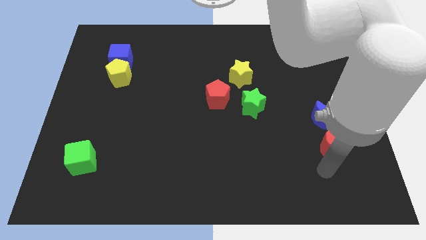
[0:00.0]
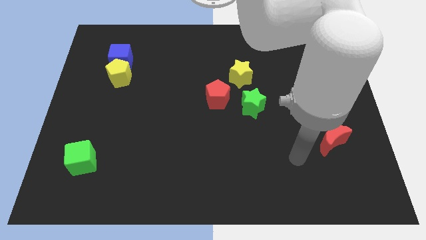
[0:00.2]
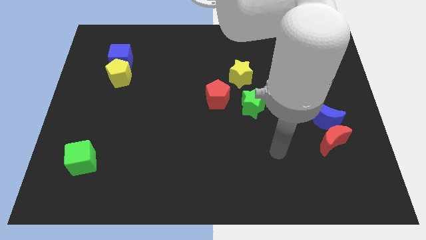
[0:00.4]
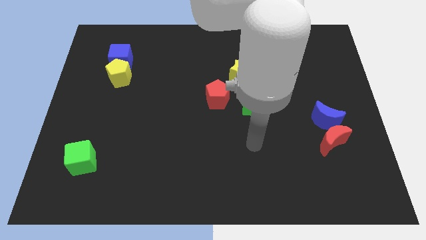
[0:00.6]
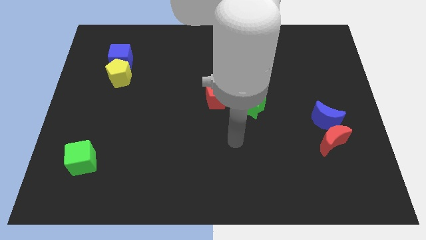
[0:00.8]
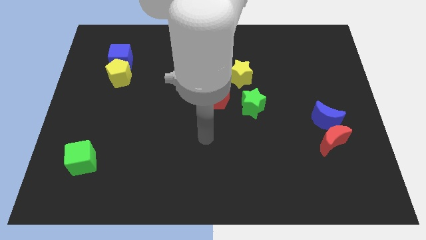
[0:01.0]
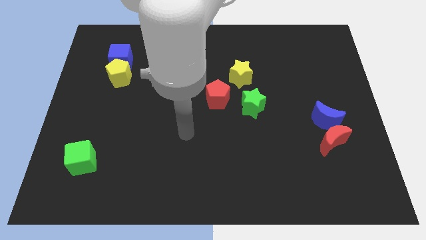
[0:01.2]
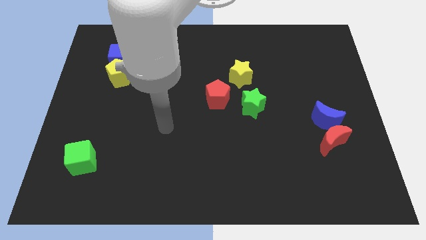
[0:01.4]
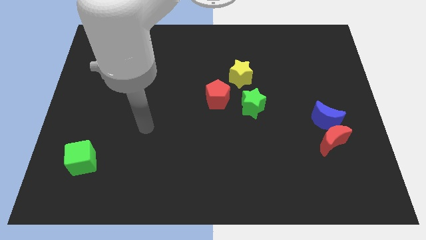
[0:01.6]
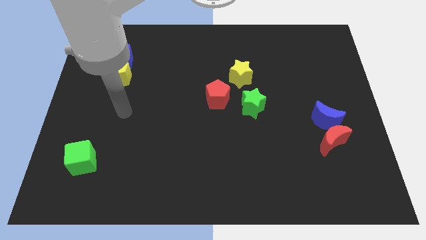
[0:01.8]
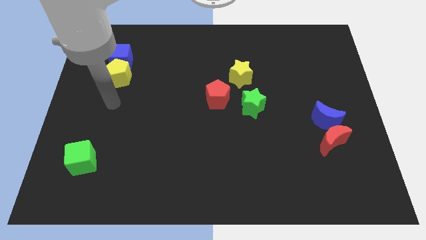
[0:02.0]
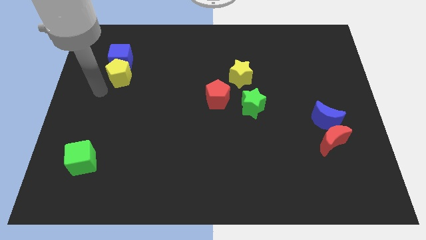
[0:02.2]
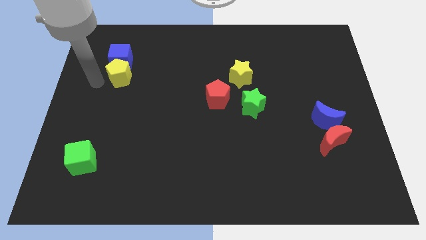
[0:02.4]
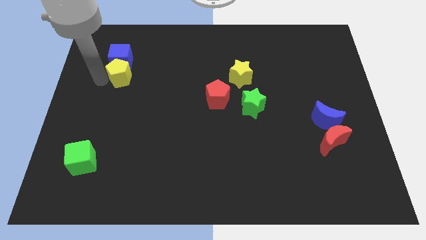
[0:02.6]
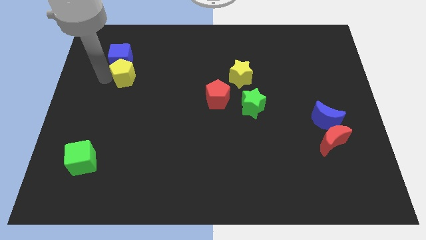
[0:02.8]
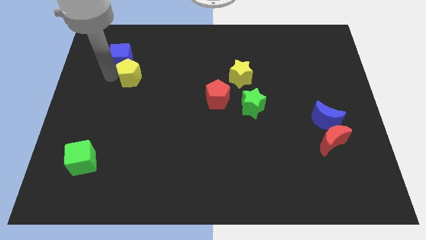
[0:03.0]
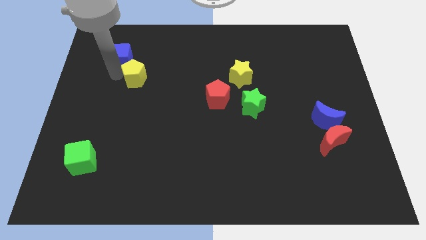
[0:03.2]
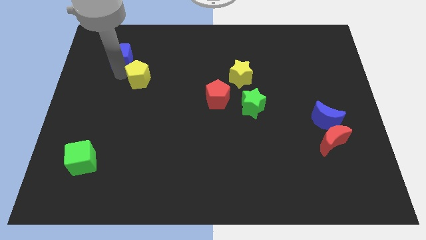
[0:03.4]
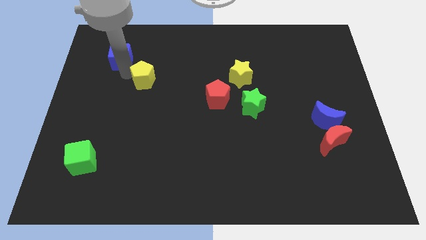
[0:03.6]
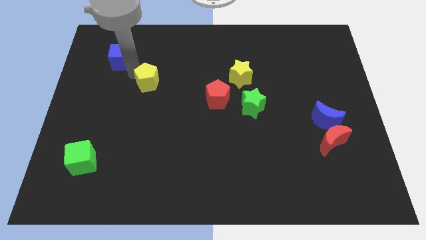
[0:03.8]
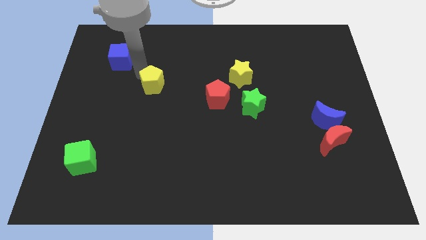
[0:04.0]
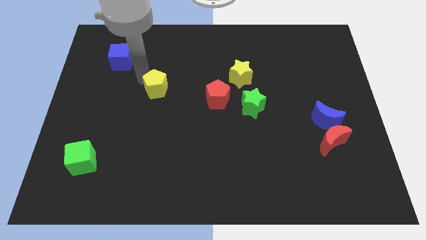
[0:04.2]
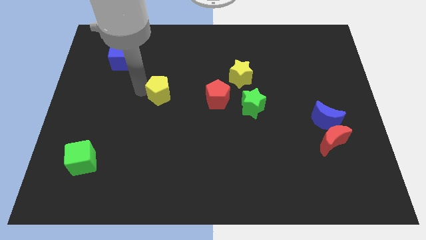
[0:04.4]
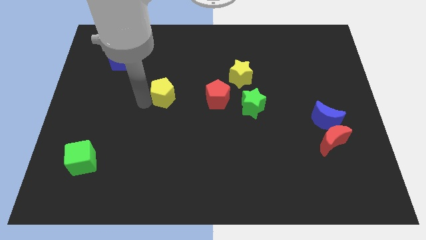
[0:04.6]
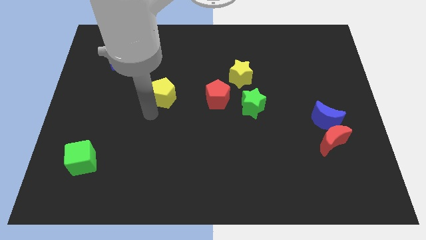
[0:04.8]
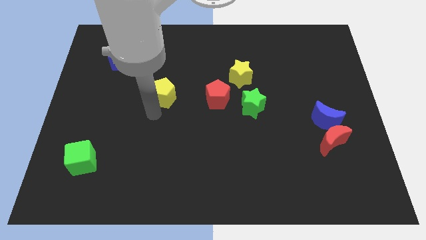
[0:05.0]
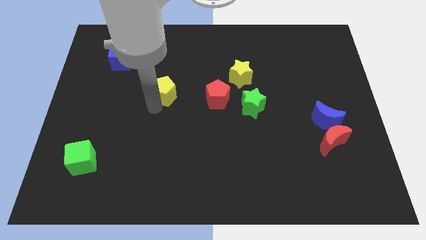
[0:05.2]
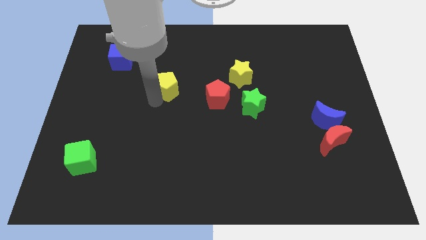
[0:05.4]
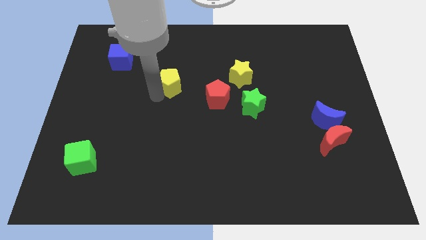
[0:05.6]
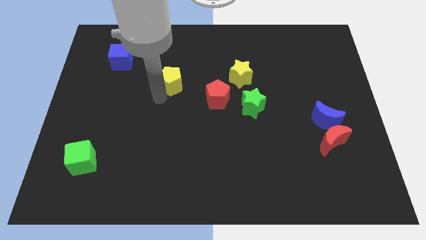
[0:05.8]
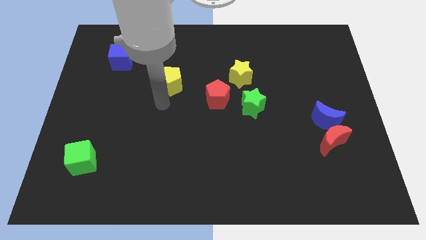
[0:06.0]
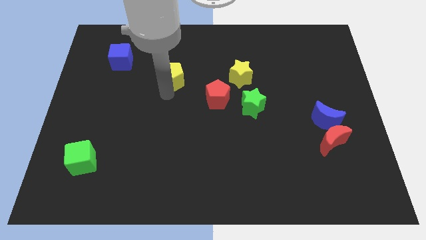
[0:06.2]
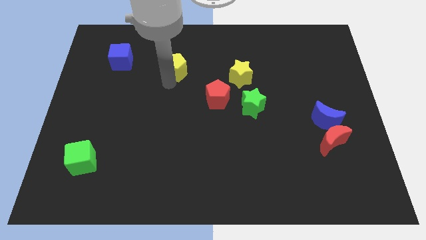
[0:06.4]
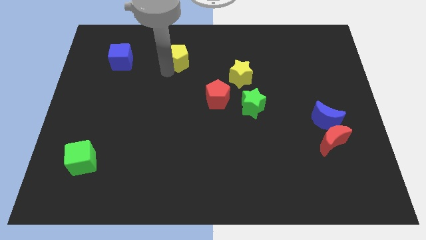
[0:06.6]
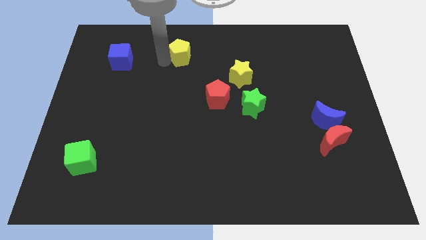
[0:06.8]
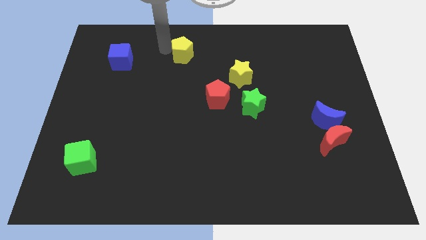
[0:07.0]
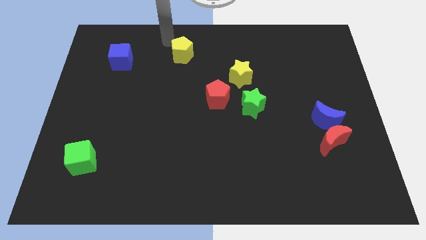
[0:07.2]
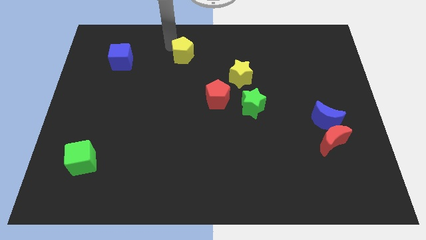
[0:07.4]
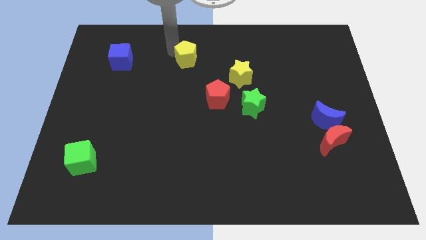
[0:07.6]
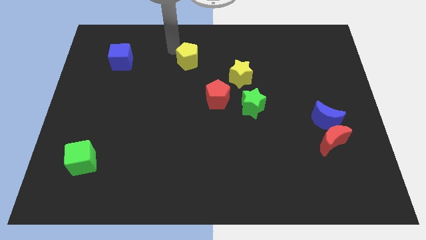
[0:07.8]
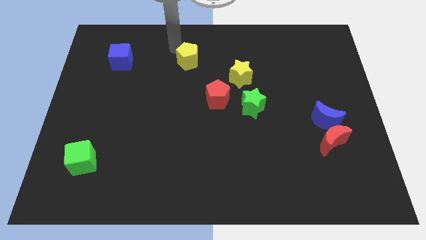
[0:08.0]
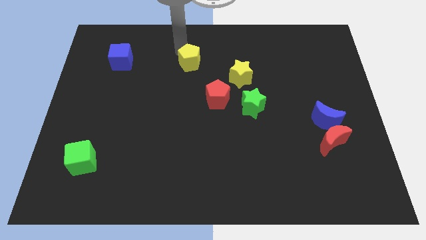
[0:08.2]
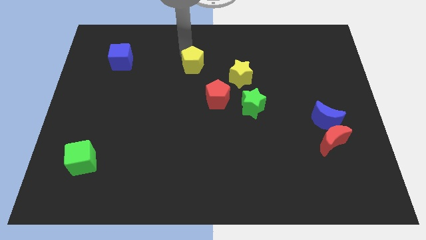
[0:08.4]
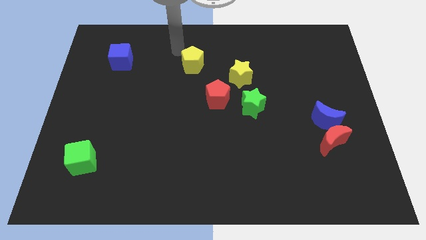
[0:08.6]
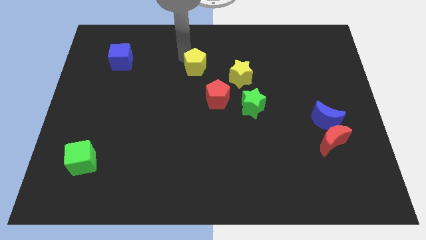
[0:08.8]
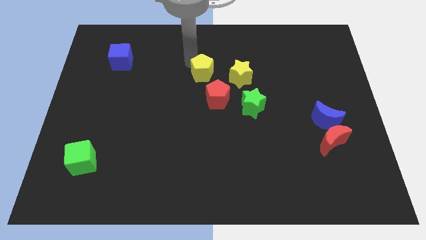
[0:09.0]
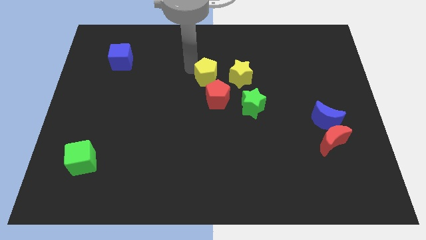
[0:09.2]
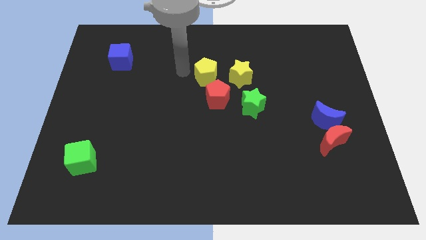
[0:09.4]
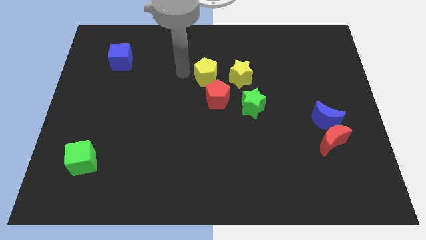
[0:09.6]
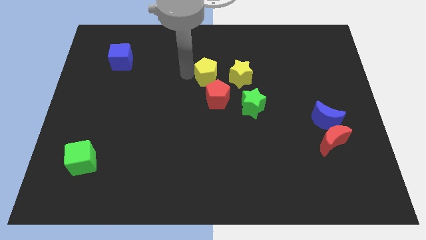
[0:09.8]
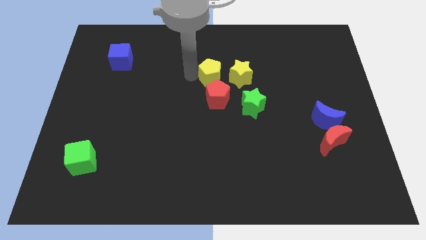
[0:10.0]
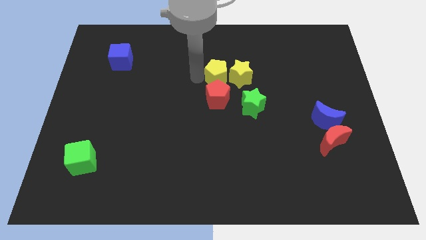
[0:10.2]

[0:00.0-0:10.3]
slide the yellow pentagon to the yellow star

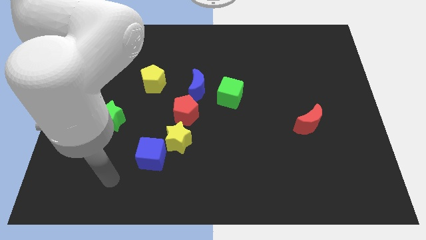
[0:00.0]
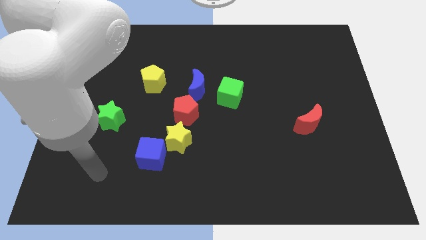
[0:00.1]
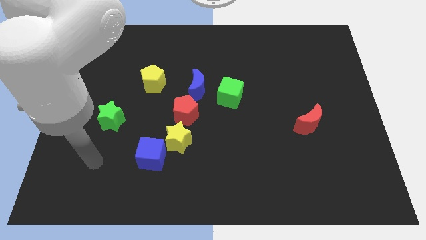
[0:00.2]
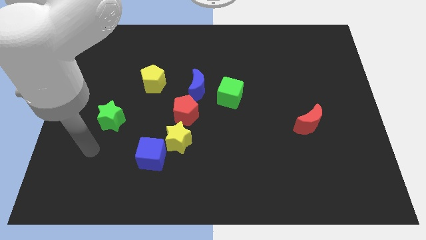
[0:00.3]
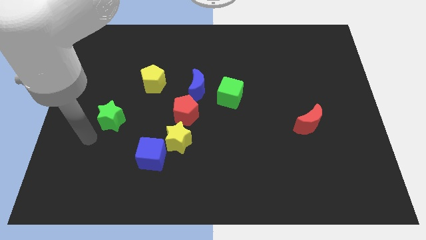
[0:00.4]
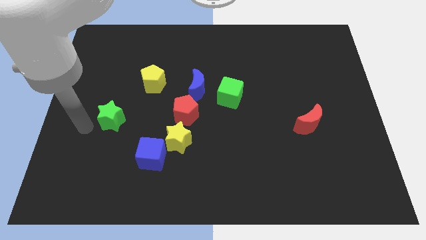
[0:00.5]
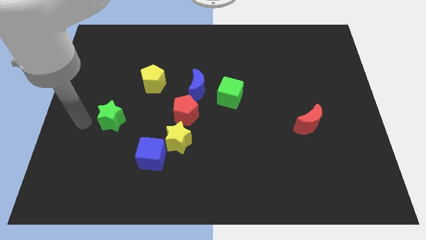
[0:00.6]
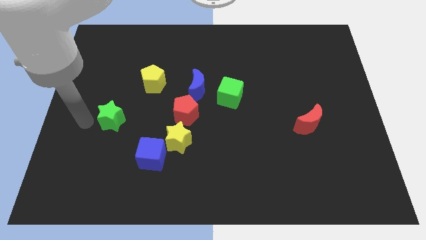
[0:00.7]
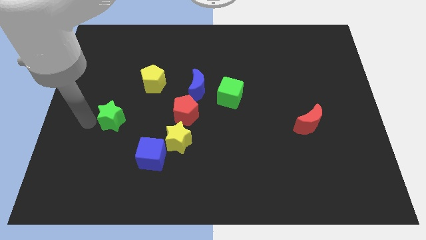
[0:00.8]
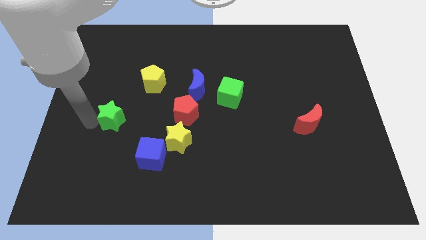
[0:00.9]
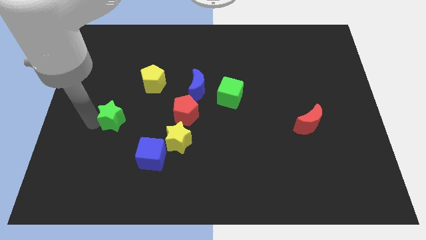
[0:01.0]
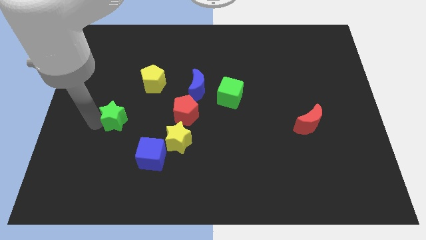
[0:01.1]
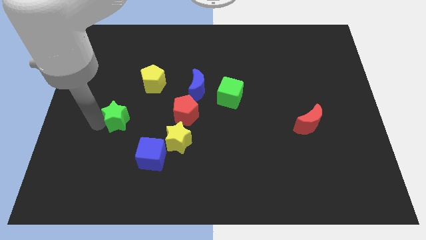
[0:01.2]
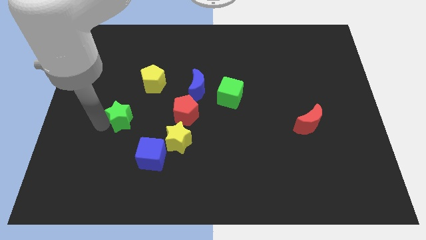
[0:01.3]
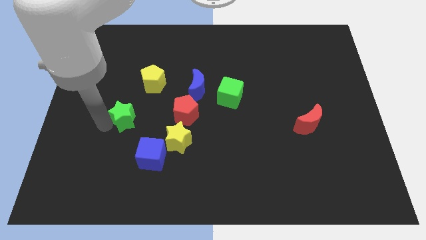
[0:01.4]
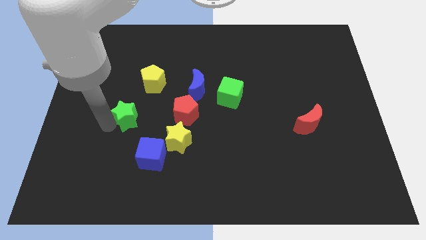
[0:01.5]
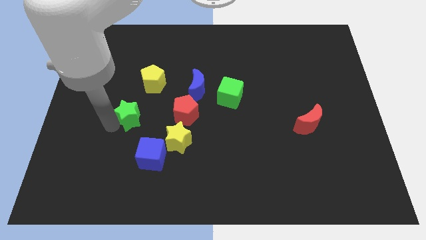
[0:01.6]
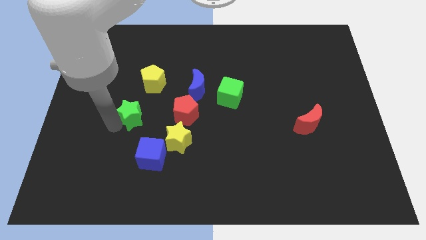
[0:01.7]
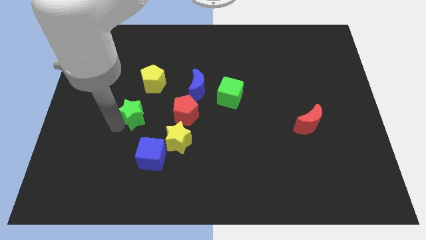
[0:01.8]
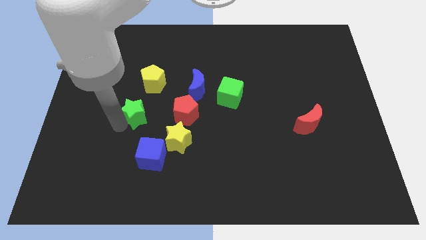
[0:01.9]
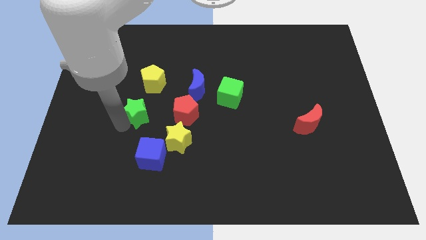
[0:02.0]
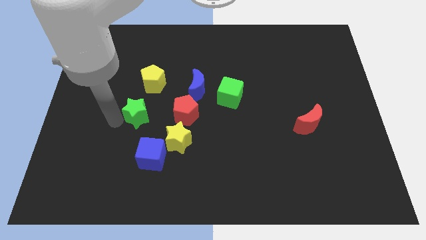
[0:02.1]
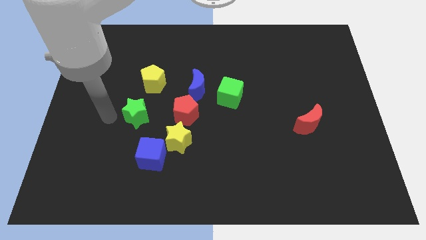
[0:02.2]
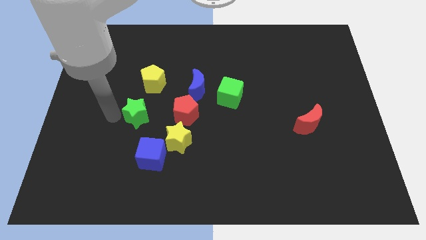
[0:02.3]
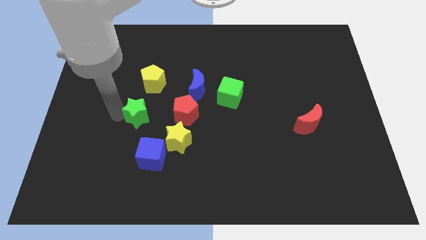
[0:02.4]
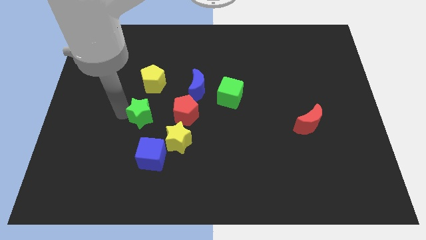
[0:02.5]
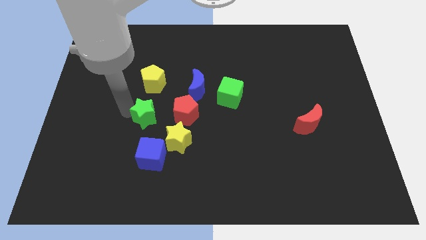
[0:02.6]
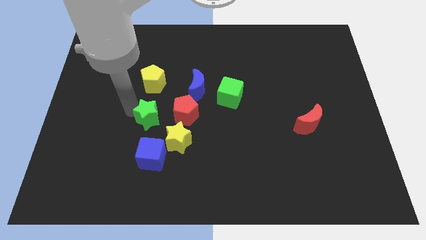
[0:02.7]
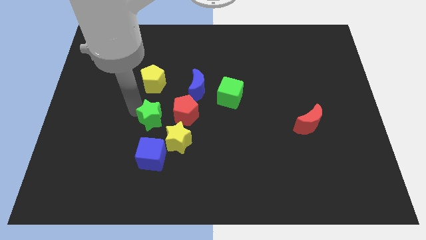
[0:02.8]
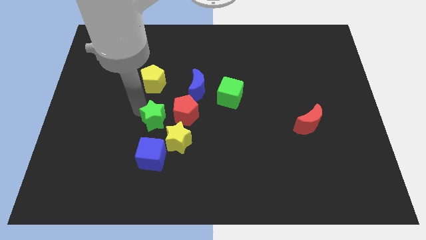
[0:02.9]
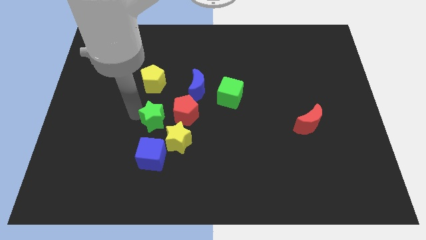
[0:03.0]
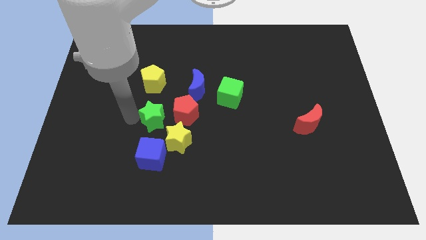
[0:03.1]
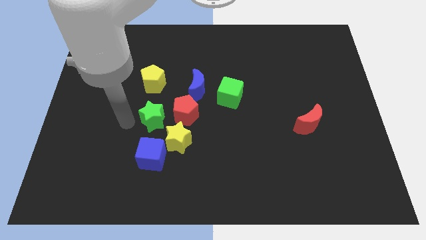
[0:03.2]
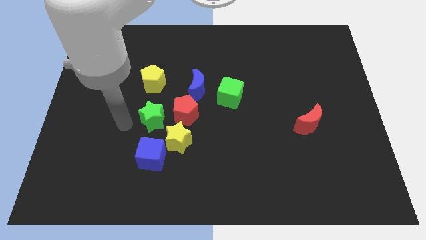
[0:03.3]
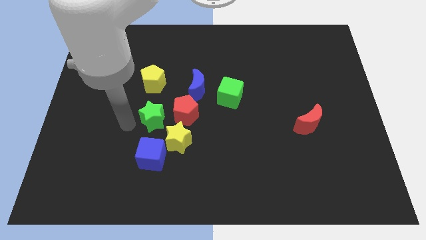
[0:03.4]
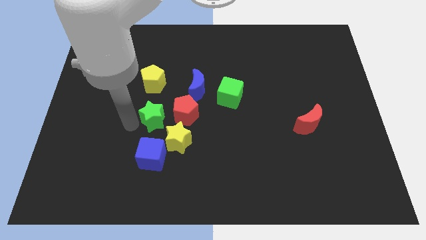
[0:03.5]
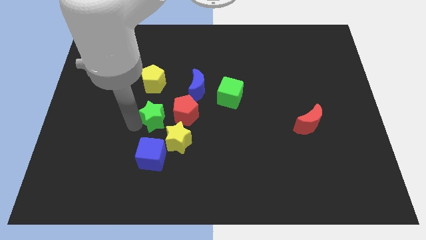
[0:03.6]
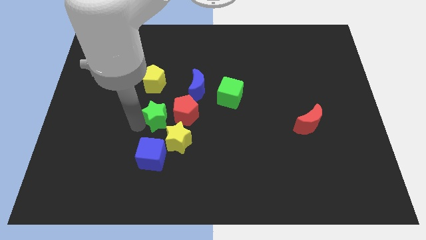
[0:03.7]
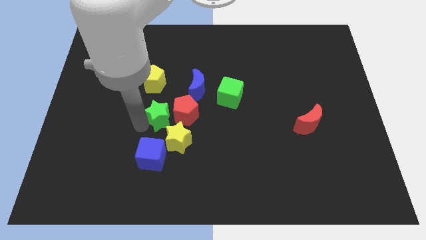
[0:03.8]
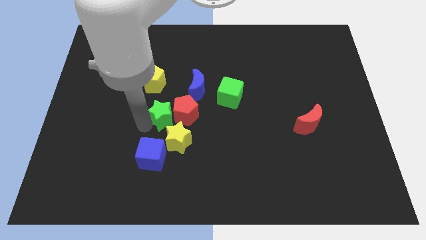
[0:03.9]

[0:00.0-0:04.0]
slide the green star to the red pentagon
